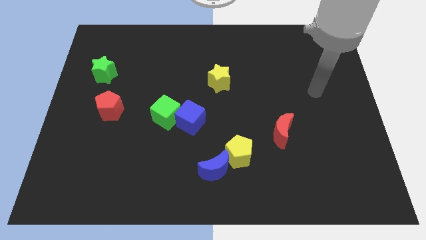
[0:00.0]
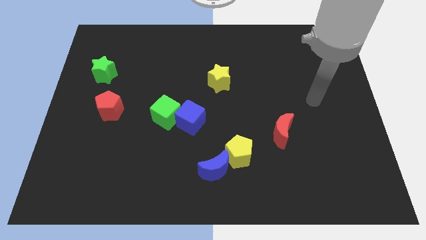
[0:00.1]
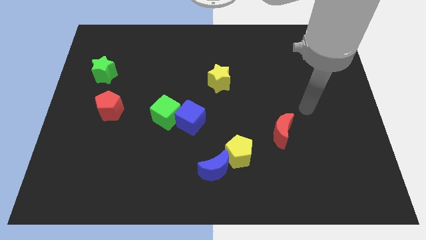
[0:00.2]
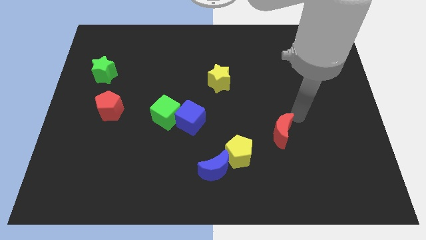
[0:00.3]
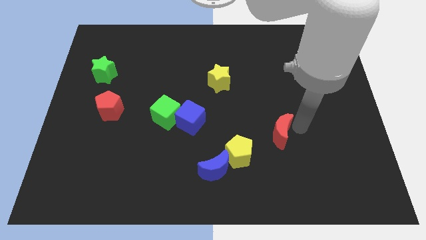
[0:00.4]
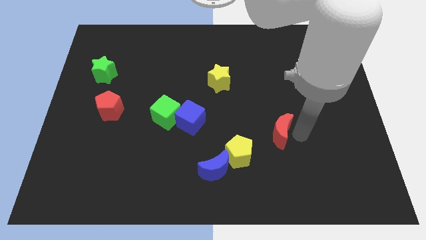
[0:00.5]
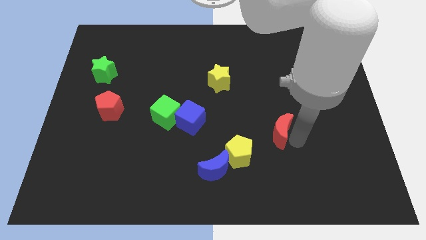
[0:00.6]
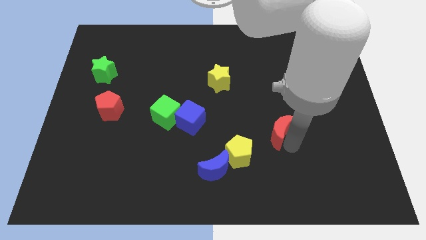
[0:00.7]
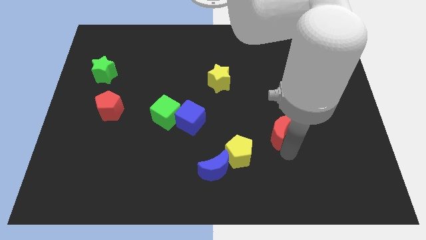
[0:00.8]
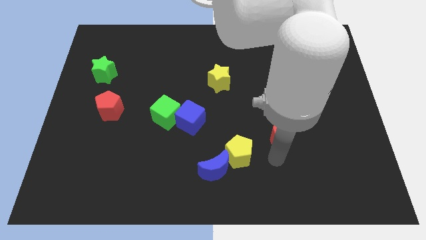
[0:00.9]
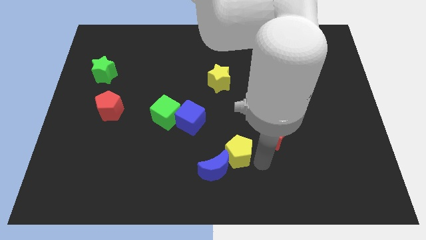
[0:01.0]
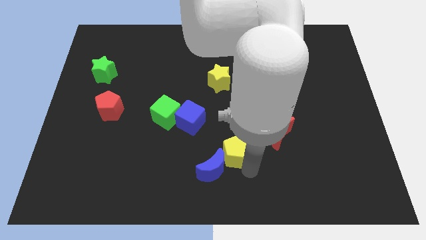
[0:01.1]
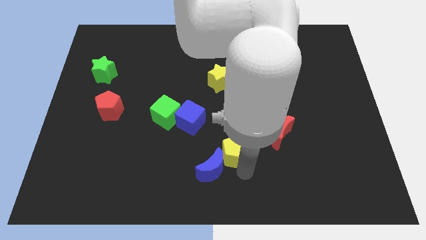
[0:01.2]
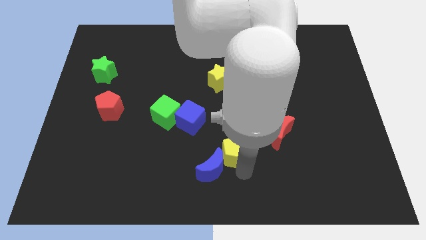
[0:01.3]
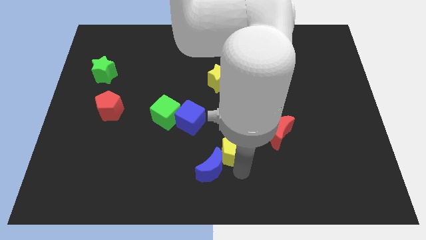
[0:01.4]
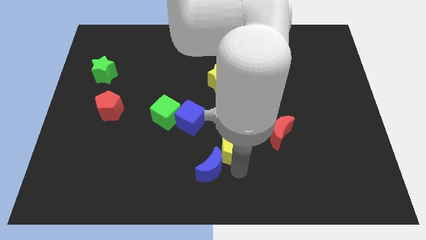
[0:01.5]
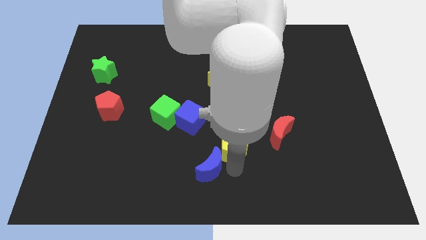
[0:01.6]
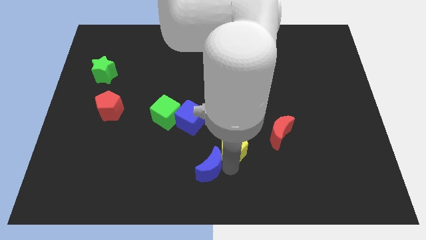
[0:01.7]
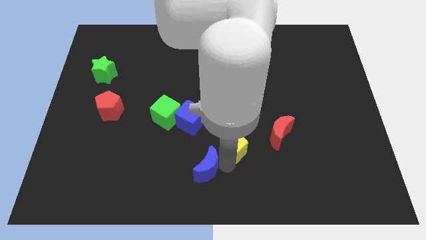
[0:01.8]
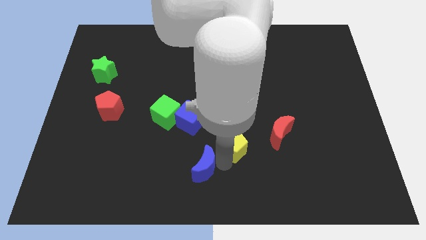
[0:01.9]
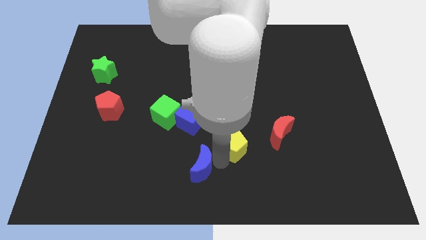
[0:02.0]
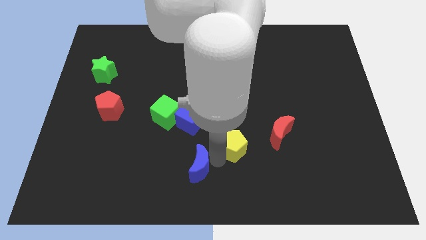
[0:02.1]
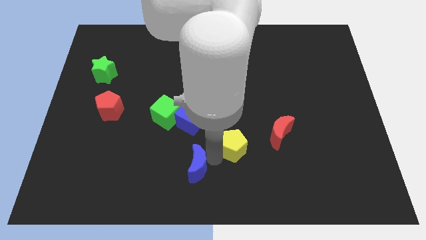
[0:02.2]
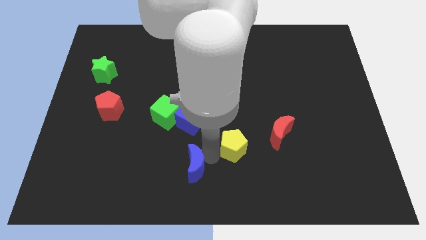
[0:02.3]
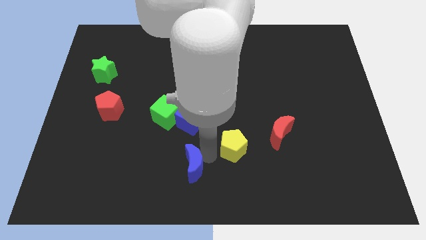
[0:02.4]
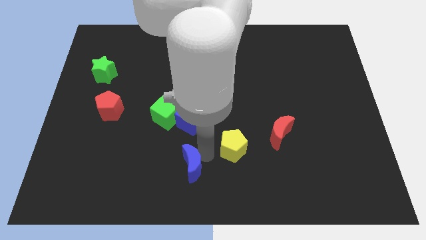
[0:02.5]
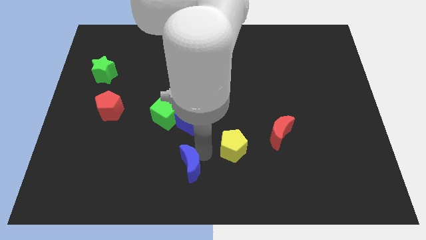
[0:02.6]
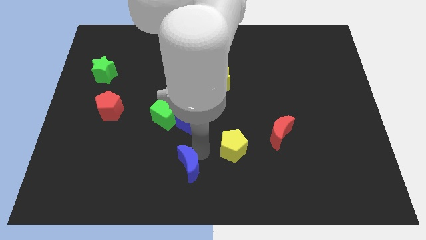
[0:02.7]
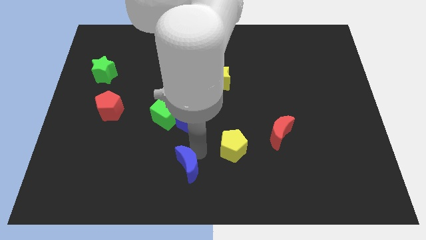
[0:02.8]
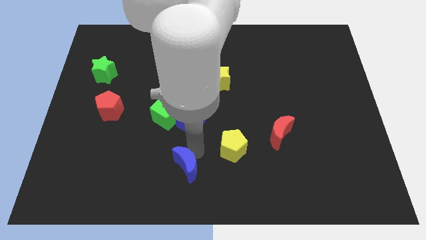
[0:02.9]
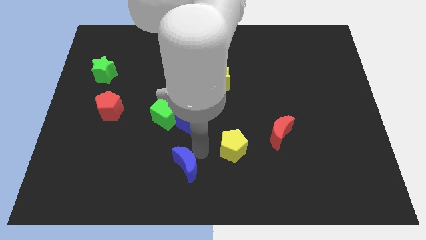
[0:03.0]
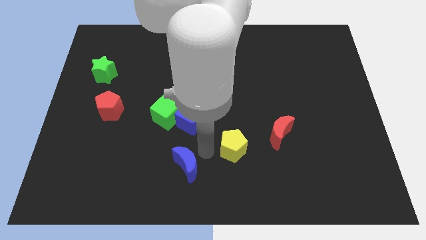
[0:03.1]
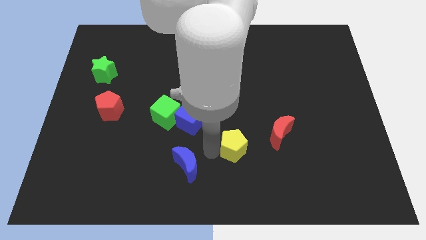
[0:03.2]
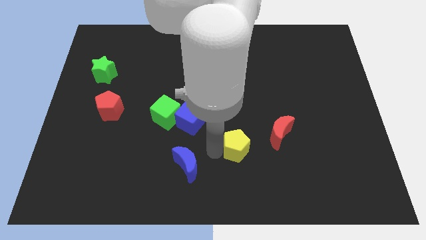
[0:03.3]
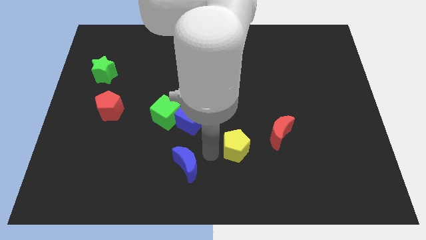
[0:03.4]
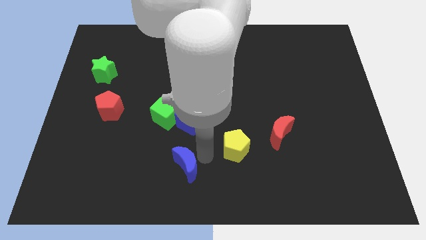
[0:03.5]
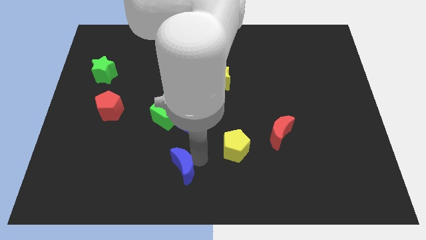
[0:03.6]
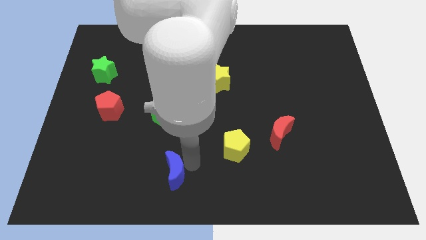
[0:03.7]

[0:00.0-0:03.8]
slightly slide the blue moon left

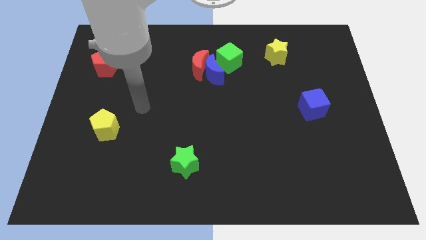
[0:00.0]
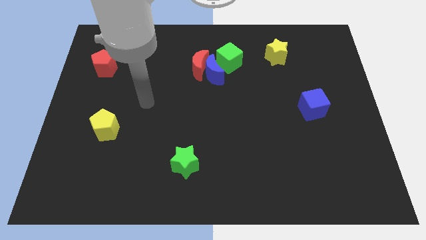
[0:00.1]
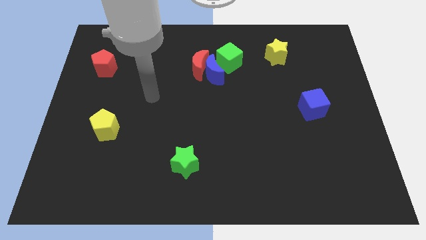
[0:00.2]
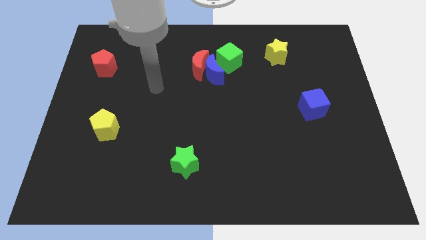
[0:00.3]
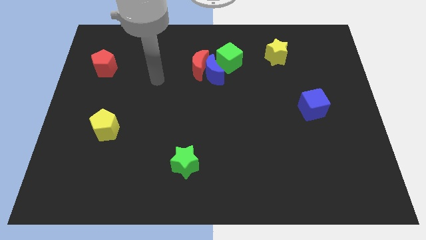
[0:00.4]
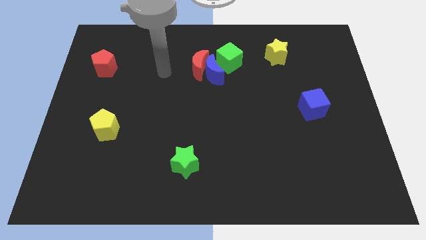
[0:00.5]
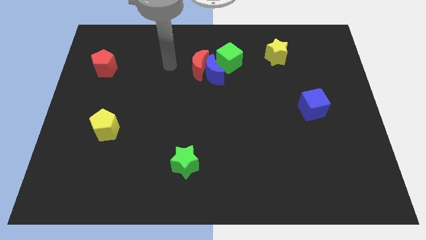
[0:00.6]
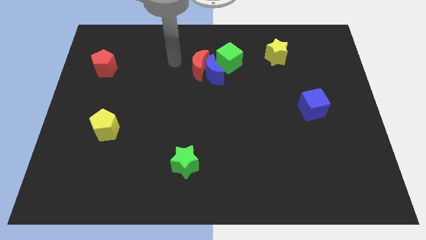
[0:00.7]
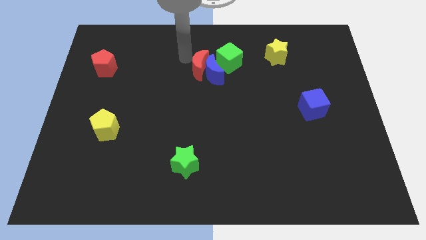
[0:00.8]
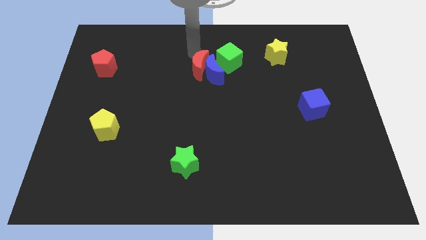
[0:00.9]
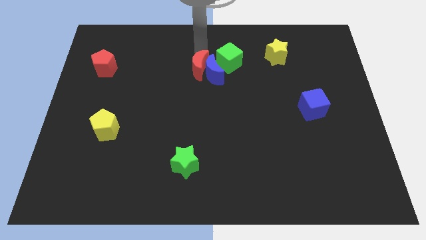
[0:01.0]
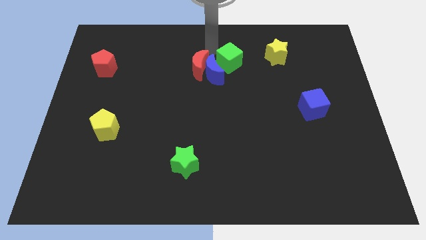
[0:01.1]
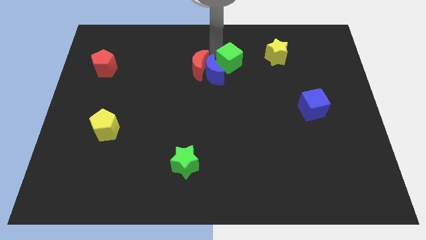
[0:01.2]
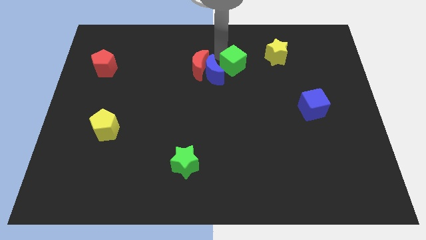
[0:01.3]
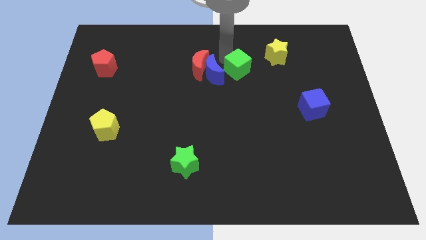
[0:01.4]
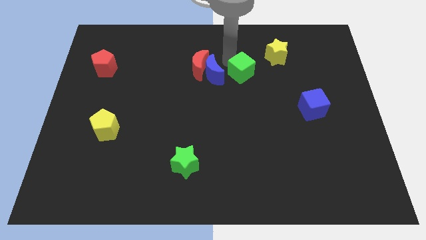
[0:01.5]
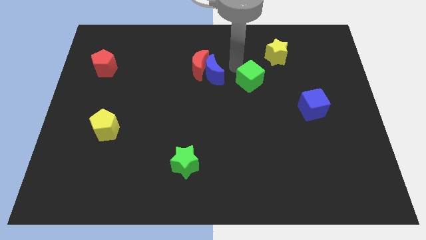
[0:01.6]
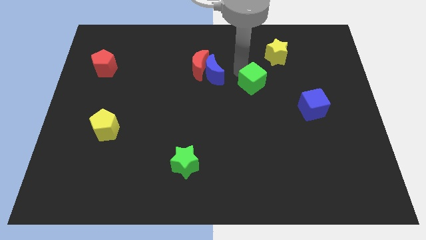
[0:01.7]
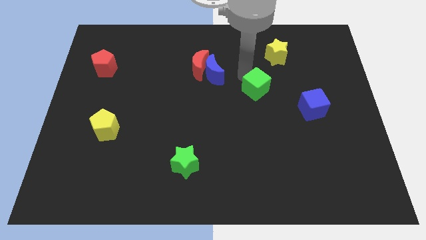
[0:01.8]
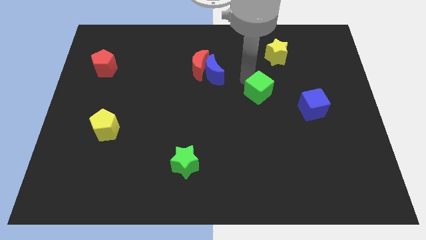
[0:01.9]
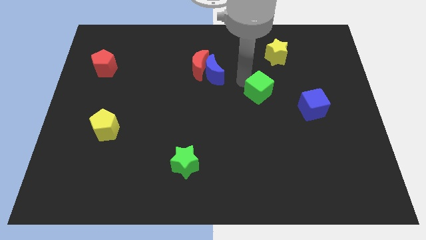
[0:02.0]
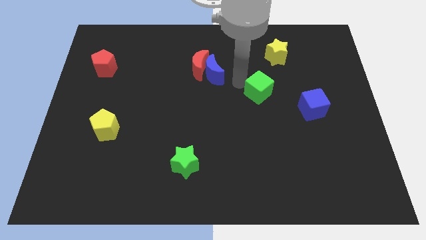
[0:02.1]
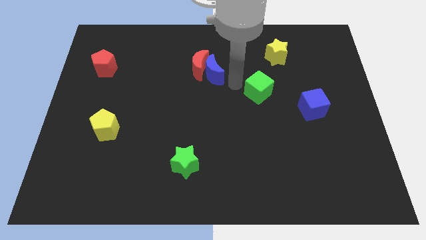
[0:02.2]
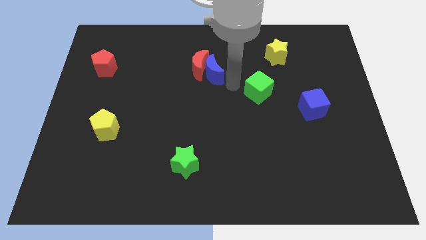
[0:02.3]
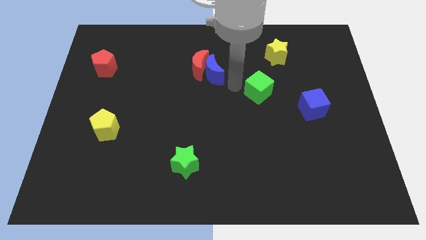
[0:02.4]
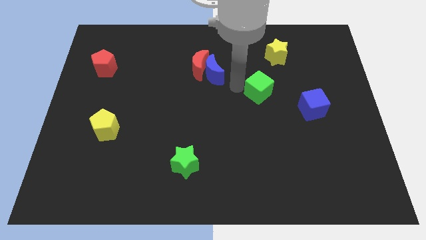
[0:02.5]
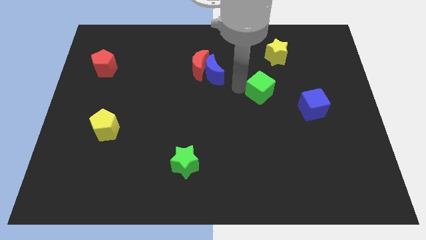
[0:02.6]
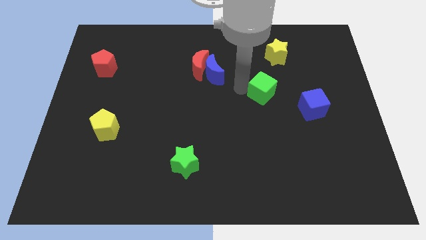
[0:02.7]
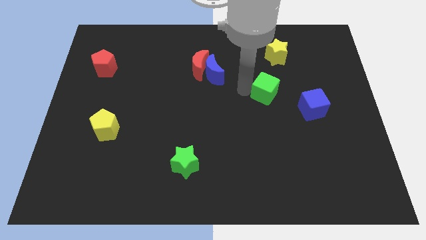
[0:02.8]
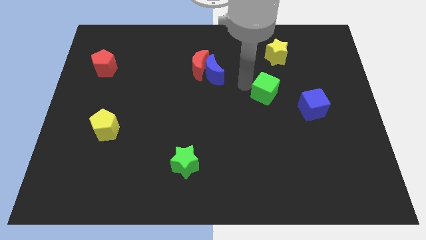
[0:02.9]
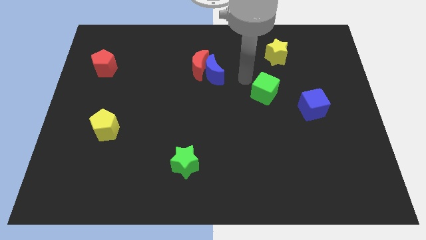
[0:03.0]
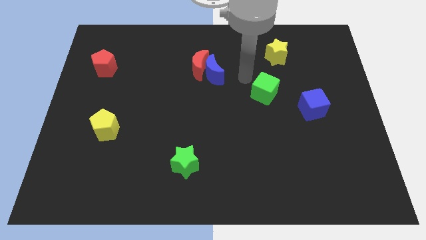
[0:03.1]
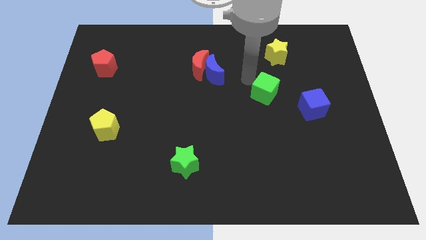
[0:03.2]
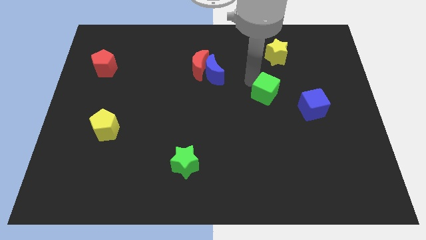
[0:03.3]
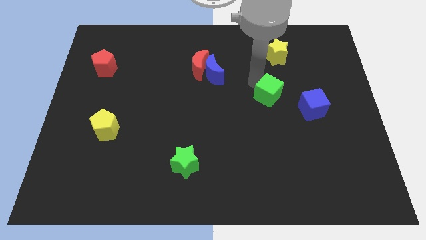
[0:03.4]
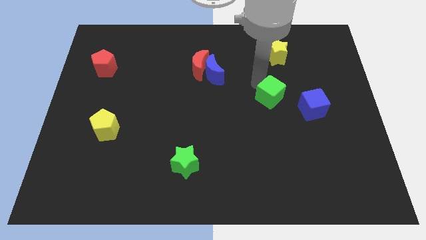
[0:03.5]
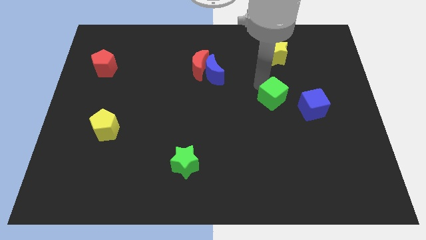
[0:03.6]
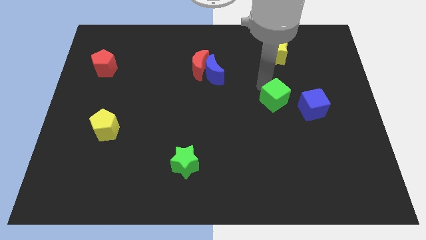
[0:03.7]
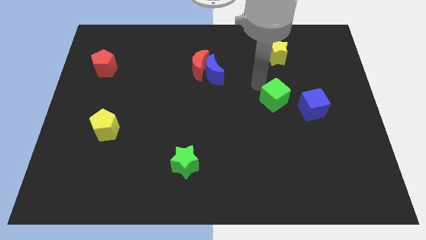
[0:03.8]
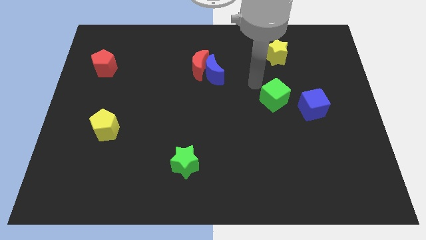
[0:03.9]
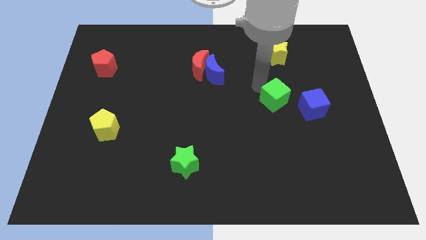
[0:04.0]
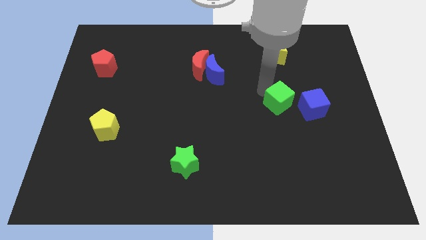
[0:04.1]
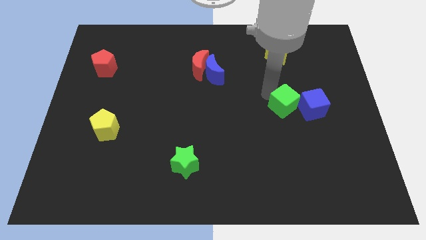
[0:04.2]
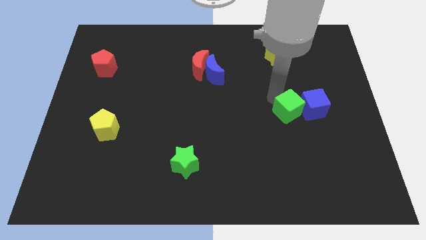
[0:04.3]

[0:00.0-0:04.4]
push the green cube diagonally downwards and to the right
